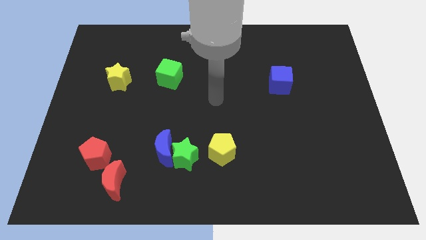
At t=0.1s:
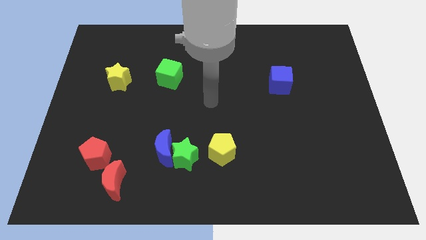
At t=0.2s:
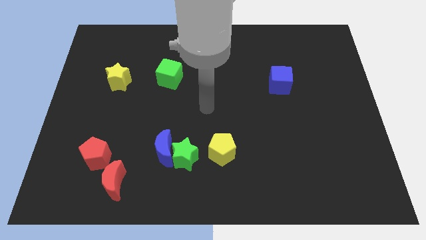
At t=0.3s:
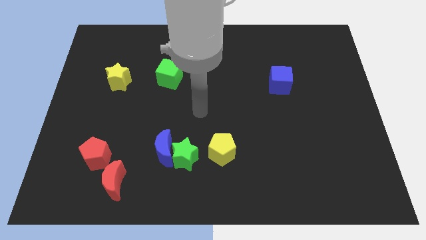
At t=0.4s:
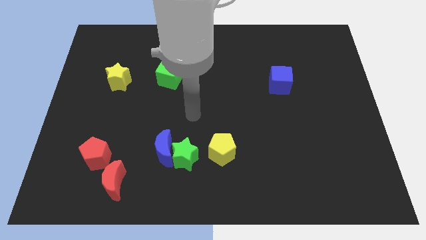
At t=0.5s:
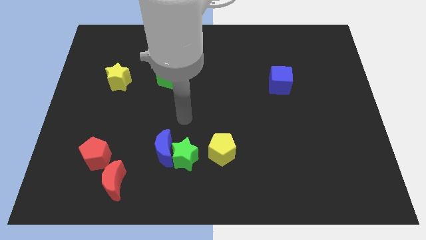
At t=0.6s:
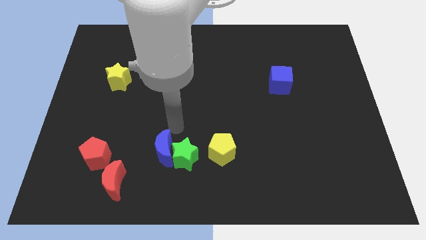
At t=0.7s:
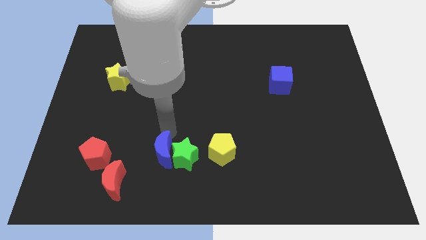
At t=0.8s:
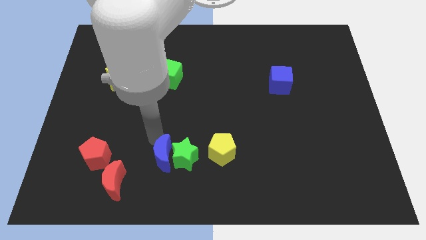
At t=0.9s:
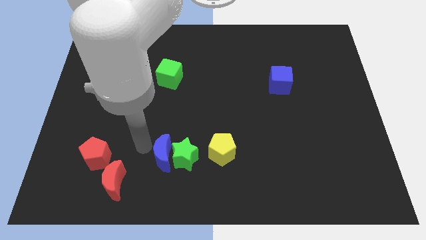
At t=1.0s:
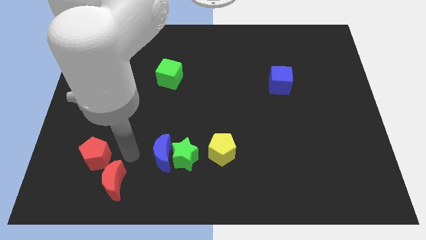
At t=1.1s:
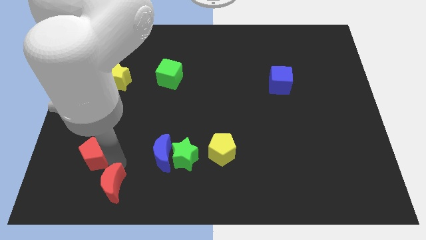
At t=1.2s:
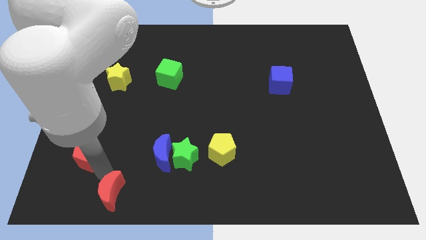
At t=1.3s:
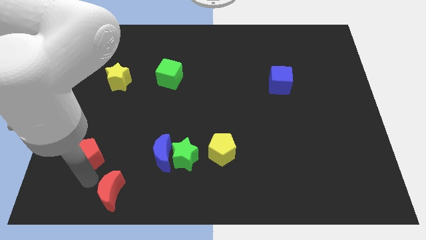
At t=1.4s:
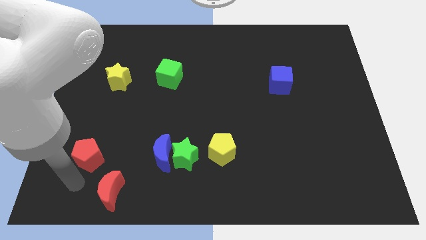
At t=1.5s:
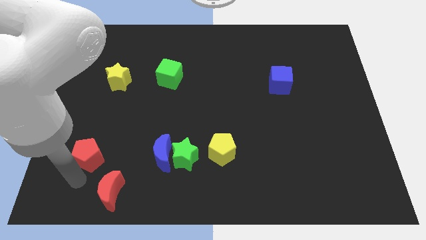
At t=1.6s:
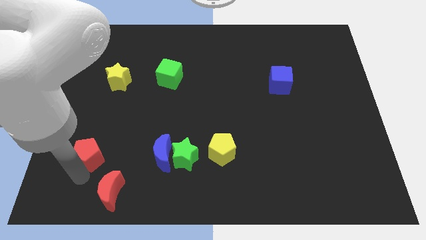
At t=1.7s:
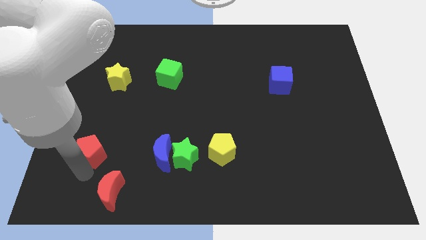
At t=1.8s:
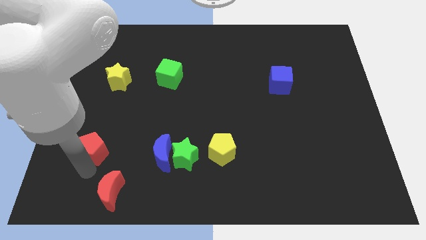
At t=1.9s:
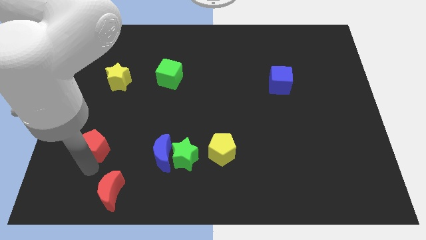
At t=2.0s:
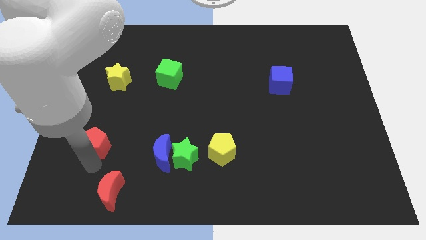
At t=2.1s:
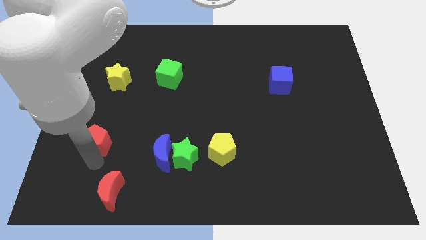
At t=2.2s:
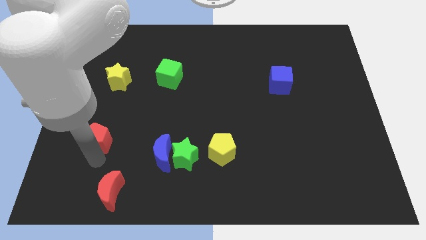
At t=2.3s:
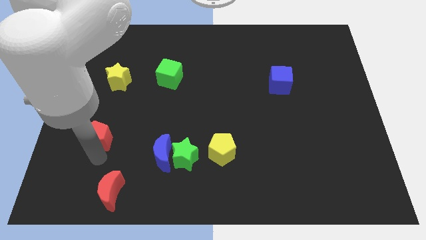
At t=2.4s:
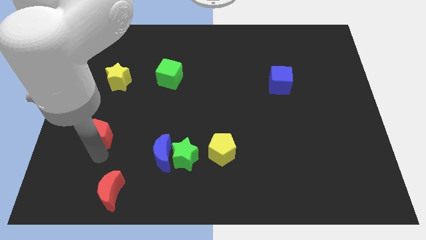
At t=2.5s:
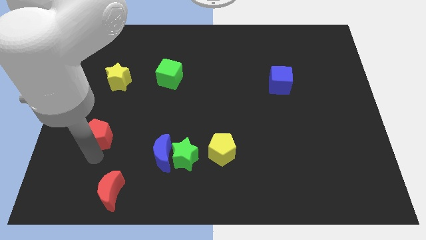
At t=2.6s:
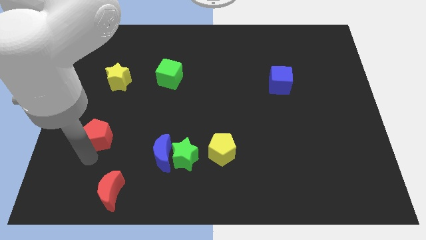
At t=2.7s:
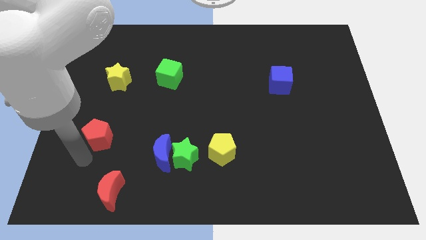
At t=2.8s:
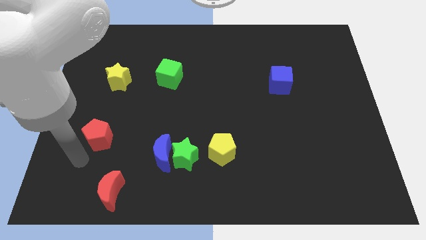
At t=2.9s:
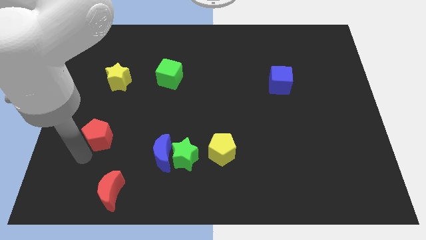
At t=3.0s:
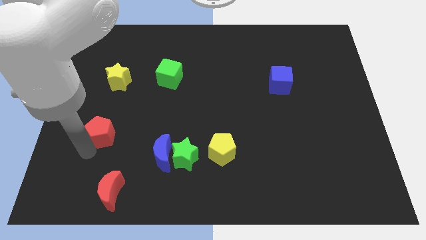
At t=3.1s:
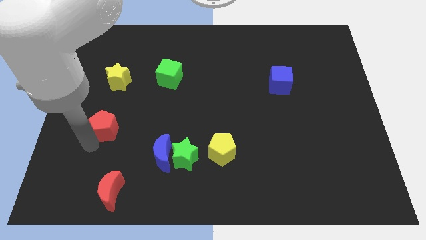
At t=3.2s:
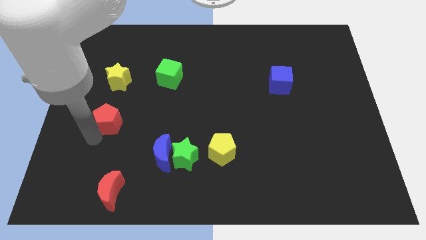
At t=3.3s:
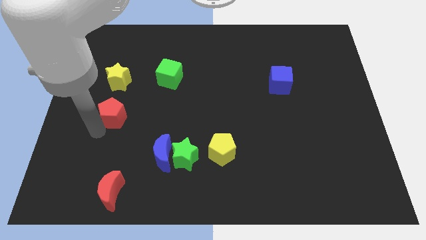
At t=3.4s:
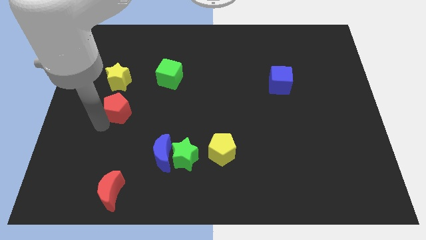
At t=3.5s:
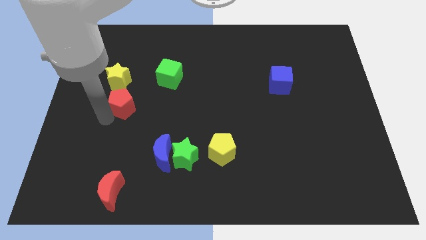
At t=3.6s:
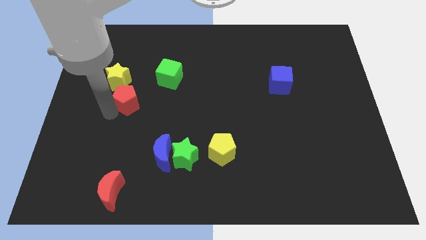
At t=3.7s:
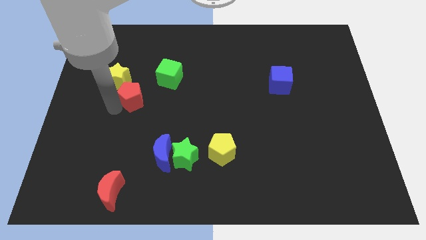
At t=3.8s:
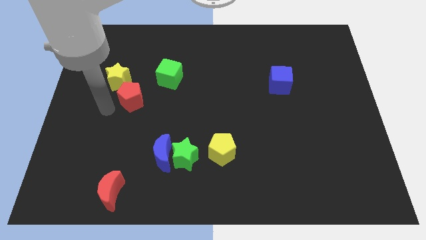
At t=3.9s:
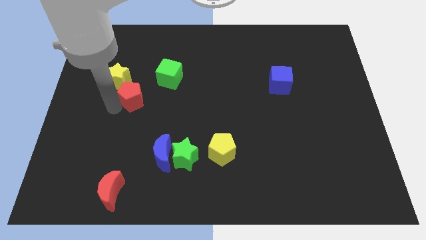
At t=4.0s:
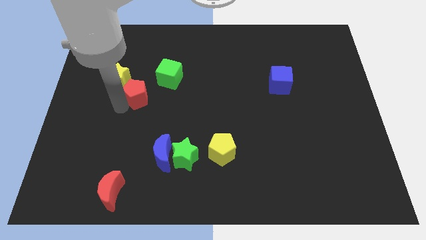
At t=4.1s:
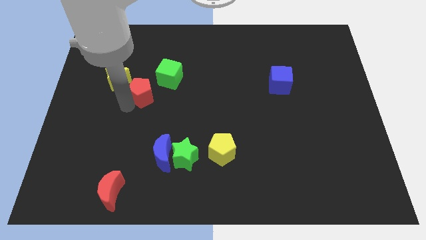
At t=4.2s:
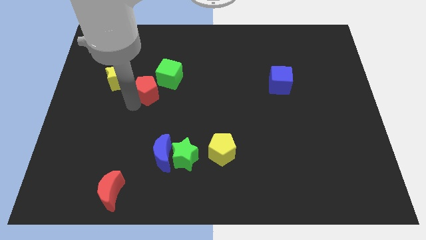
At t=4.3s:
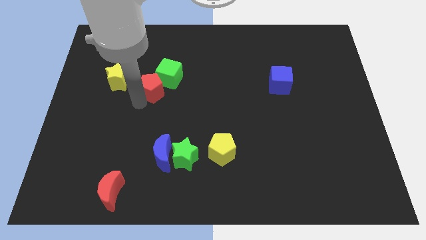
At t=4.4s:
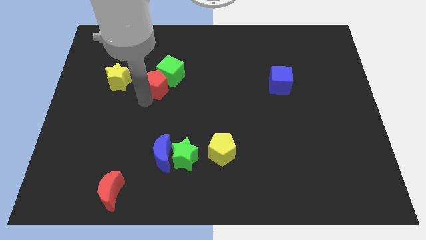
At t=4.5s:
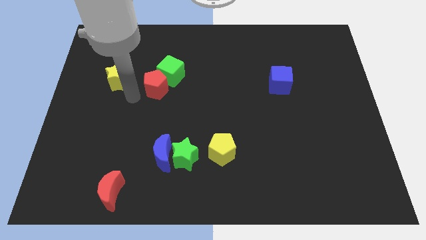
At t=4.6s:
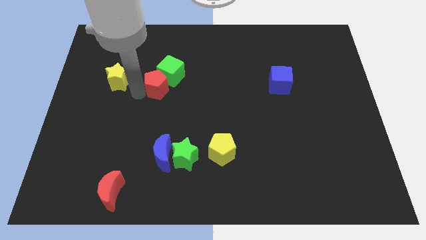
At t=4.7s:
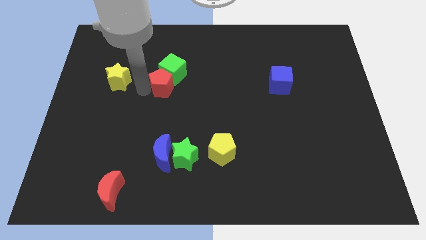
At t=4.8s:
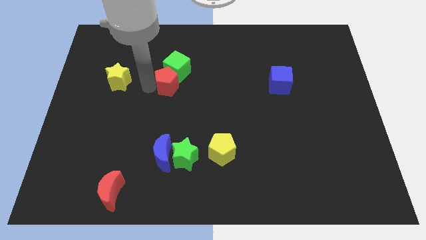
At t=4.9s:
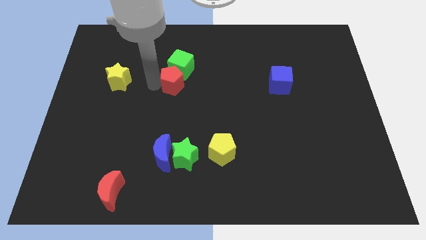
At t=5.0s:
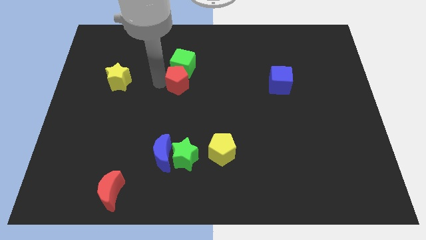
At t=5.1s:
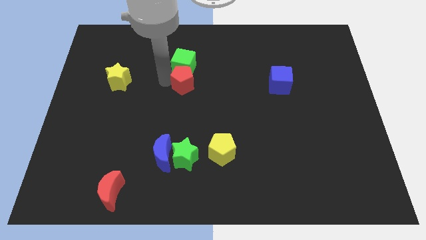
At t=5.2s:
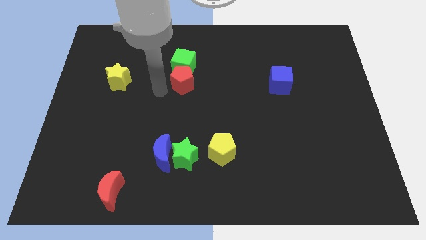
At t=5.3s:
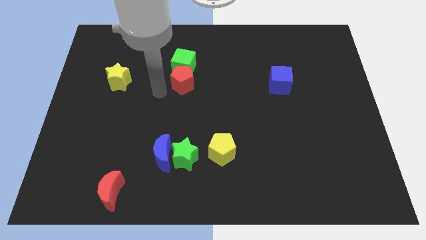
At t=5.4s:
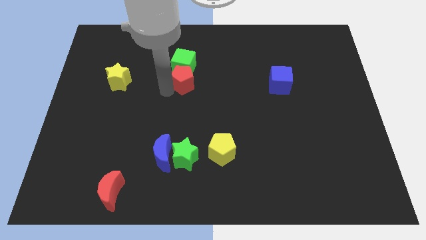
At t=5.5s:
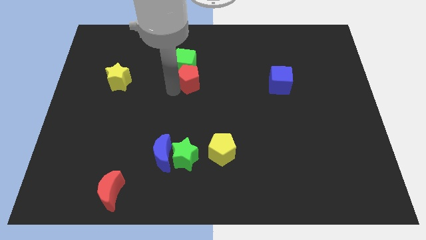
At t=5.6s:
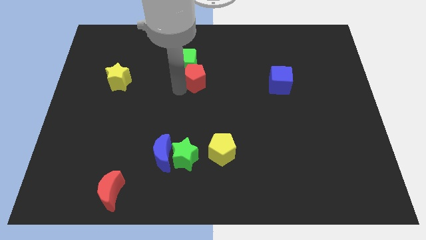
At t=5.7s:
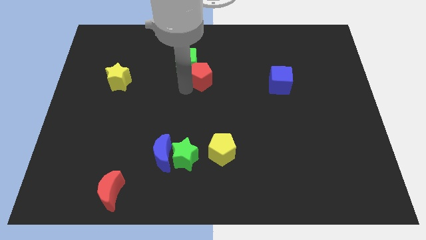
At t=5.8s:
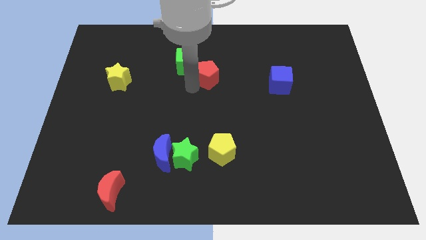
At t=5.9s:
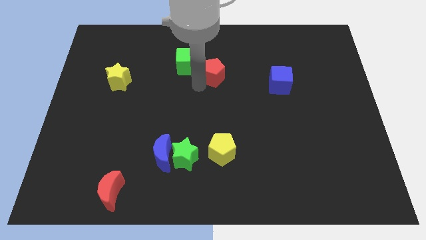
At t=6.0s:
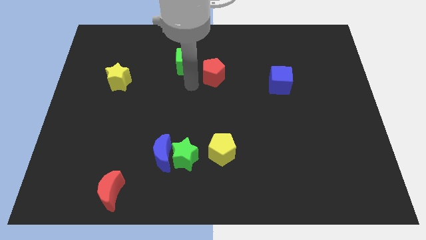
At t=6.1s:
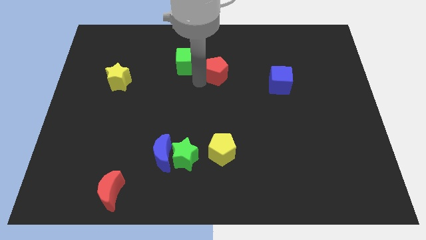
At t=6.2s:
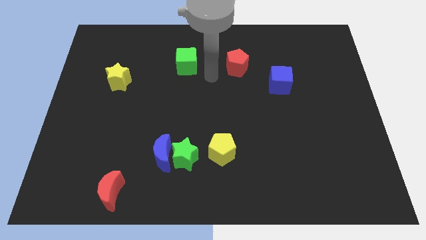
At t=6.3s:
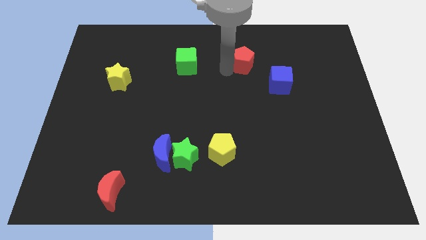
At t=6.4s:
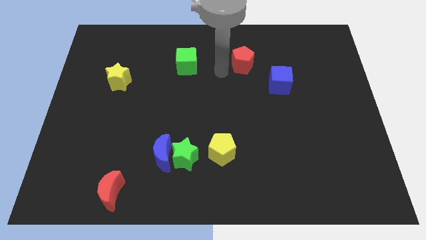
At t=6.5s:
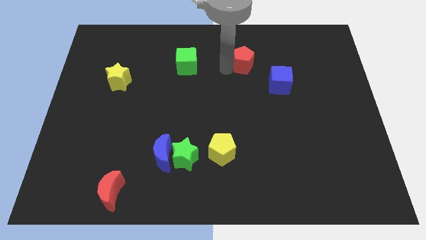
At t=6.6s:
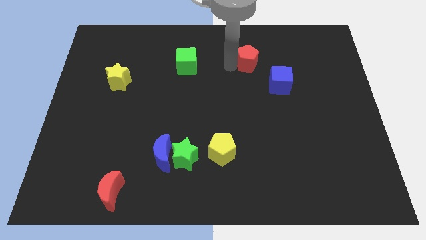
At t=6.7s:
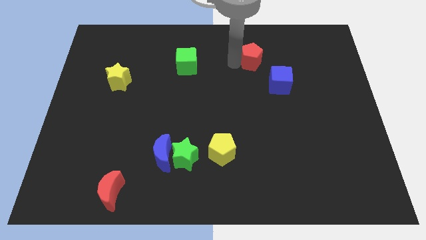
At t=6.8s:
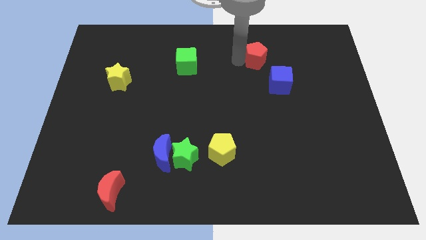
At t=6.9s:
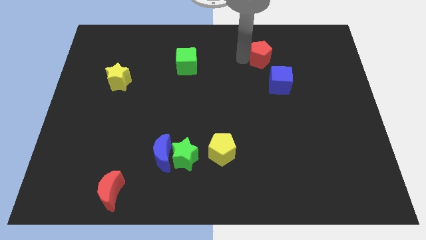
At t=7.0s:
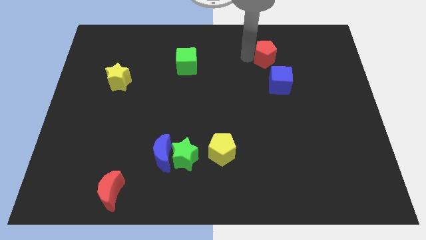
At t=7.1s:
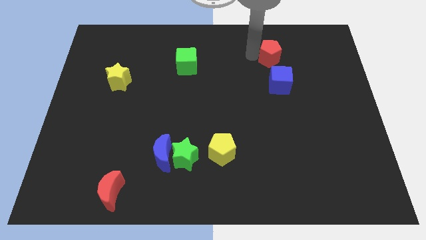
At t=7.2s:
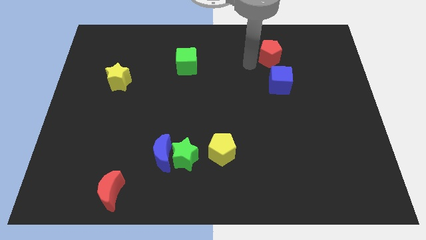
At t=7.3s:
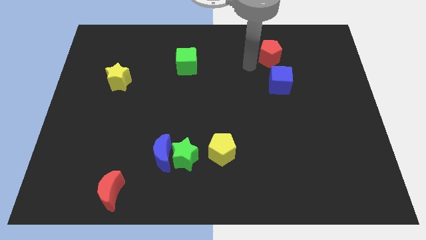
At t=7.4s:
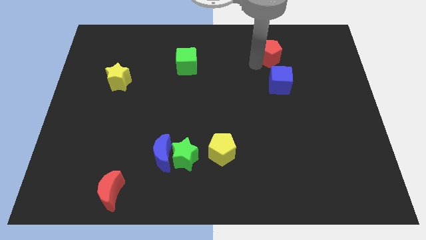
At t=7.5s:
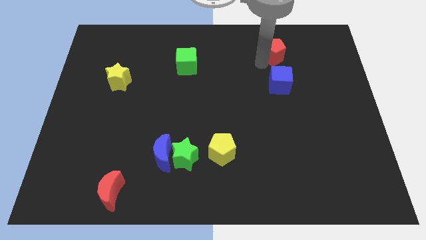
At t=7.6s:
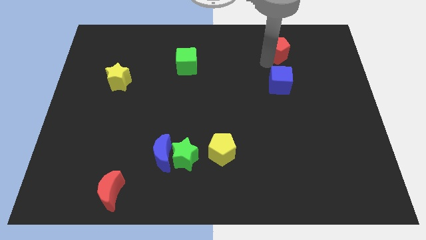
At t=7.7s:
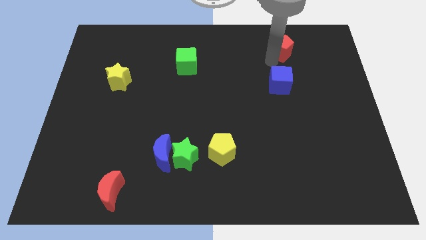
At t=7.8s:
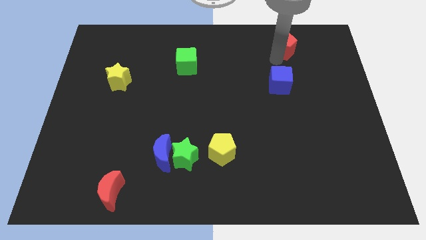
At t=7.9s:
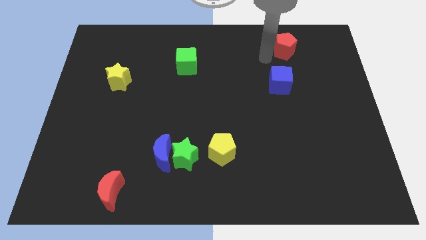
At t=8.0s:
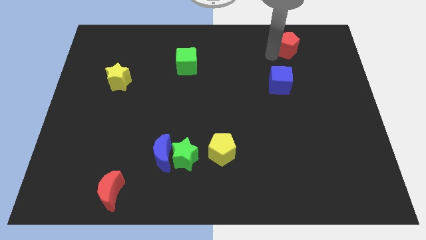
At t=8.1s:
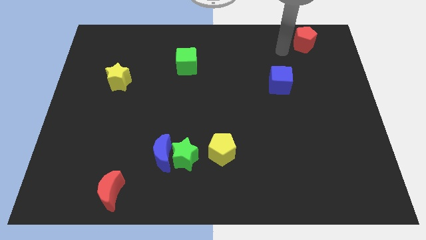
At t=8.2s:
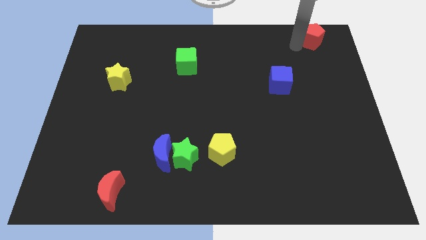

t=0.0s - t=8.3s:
slide the red pentagon to the top right of the board
